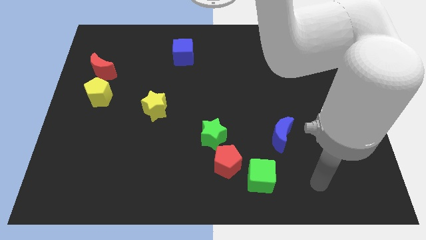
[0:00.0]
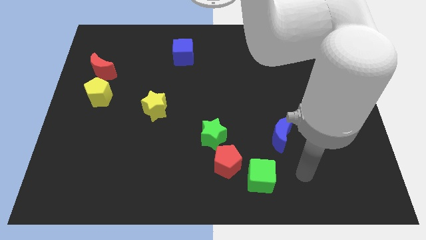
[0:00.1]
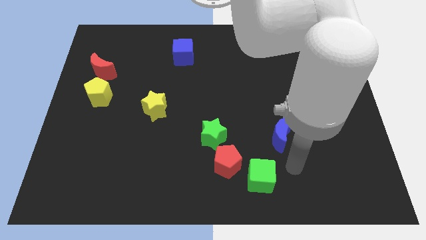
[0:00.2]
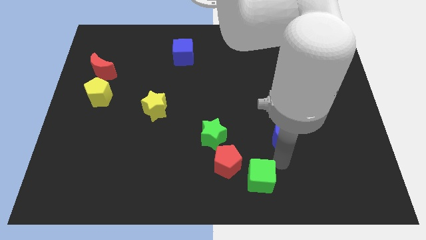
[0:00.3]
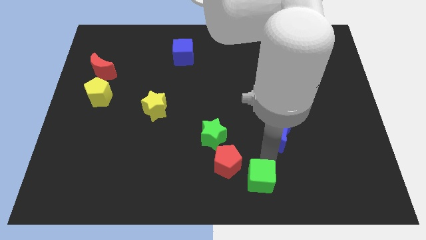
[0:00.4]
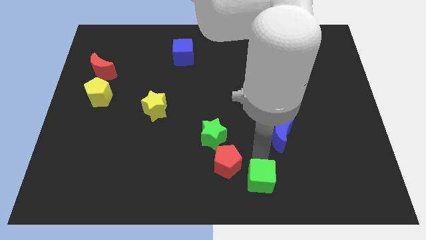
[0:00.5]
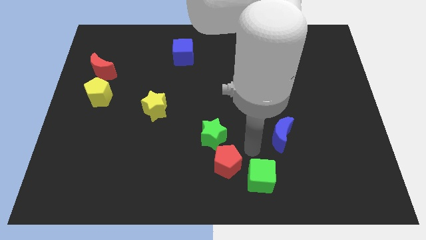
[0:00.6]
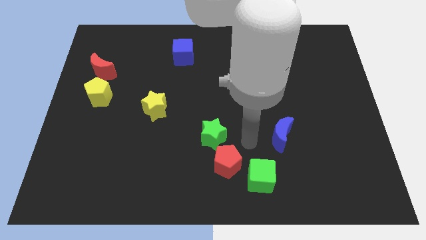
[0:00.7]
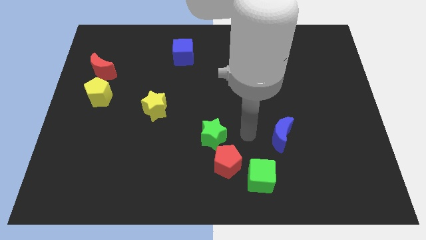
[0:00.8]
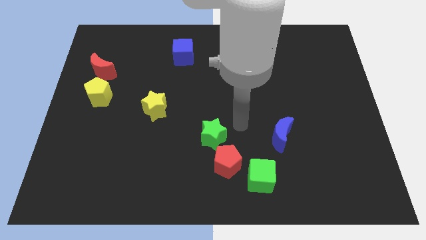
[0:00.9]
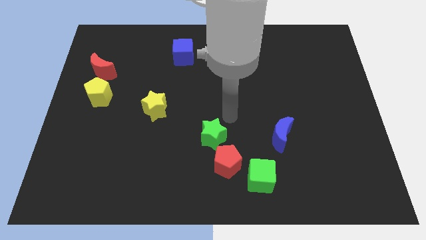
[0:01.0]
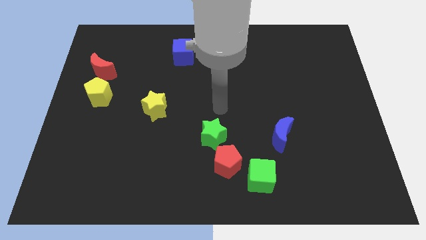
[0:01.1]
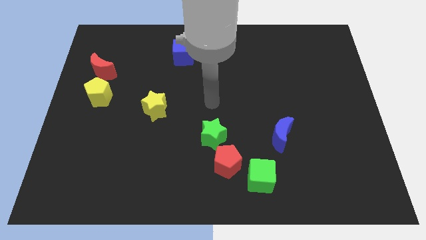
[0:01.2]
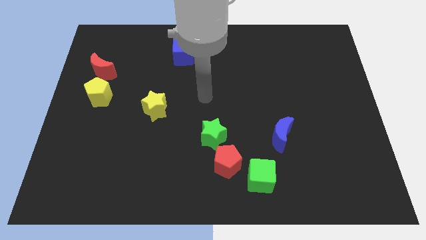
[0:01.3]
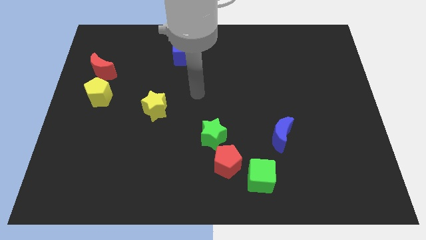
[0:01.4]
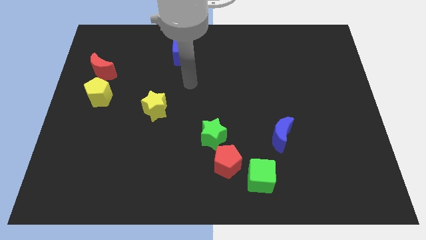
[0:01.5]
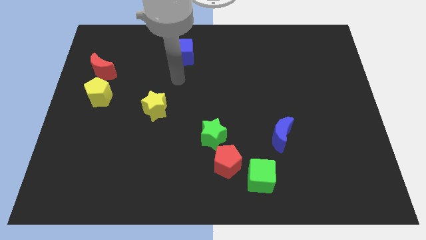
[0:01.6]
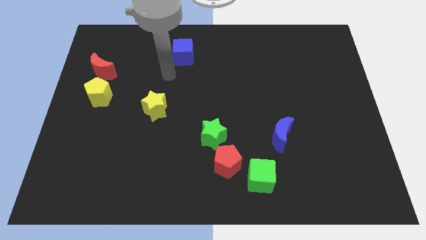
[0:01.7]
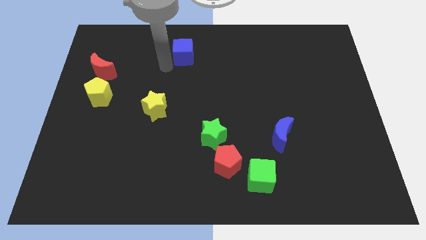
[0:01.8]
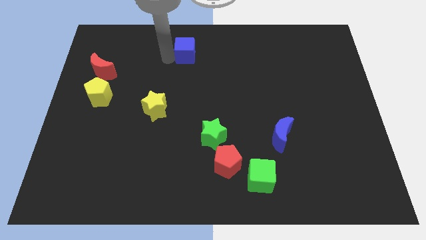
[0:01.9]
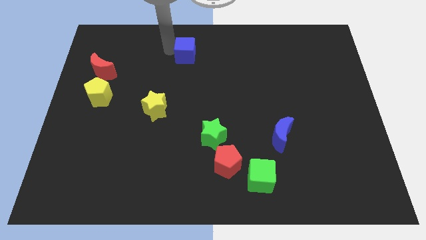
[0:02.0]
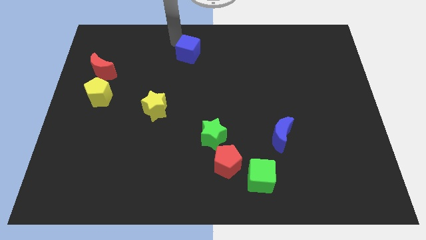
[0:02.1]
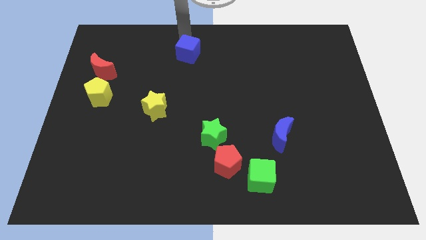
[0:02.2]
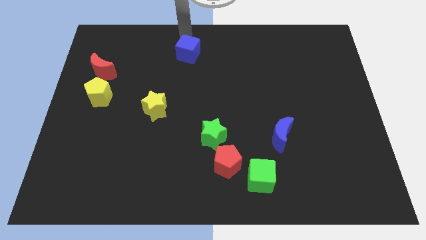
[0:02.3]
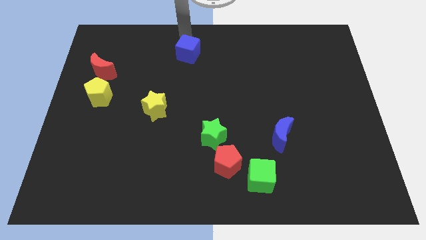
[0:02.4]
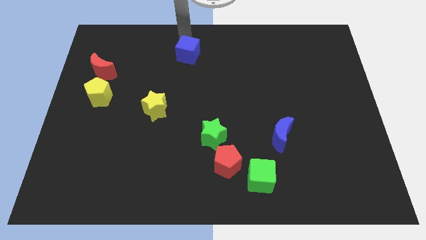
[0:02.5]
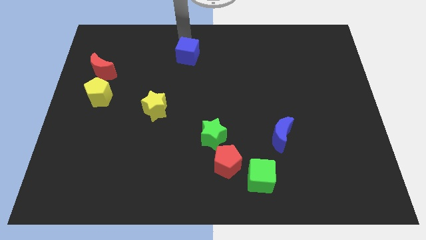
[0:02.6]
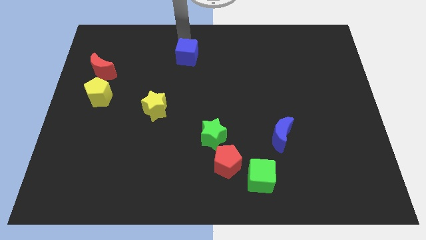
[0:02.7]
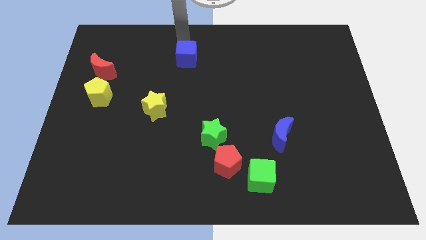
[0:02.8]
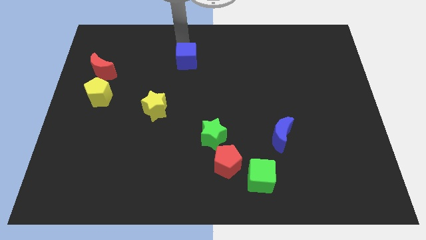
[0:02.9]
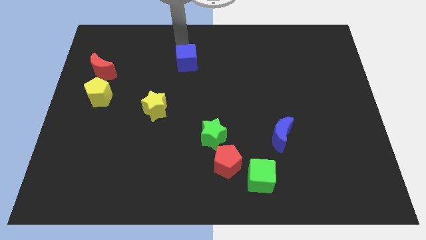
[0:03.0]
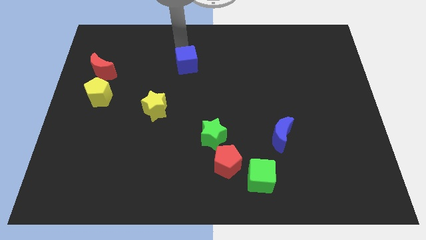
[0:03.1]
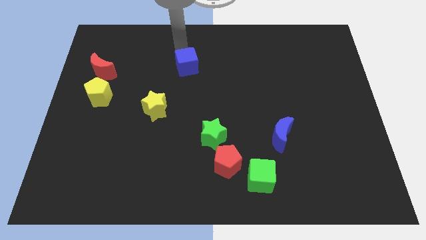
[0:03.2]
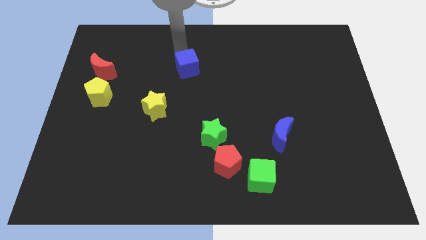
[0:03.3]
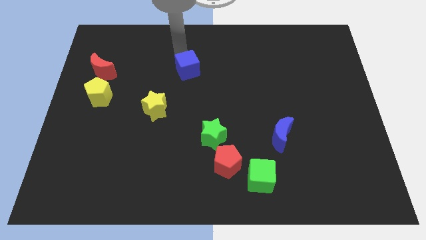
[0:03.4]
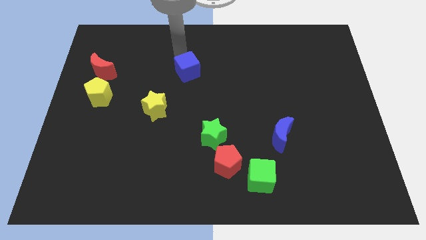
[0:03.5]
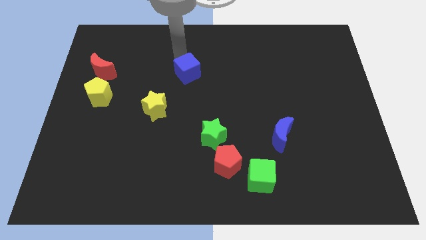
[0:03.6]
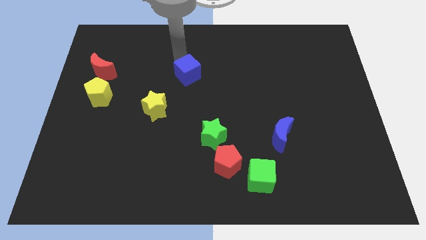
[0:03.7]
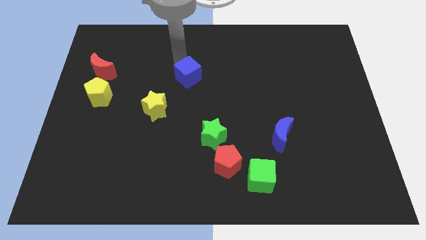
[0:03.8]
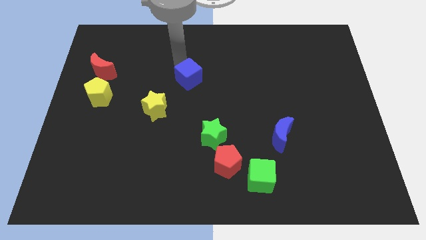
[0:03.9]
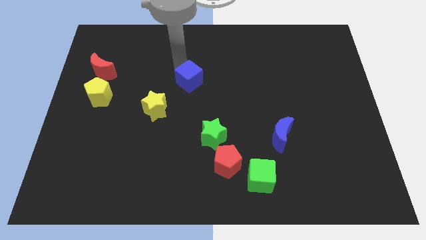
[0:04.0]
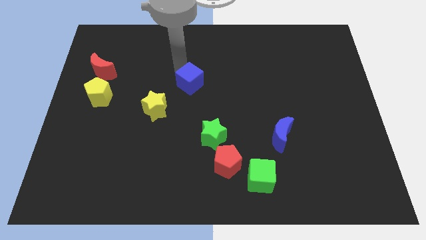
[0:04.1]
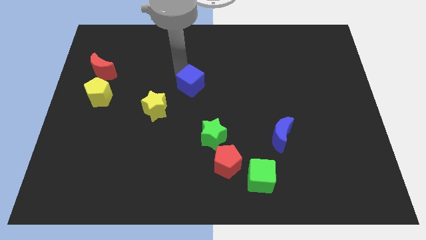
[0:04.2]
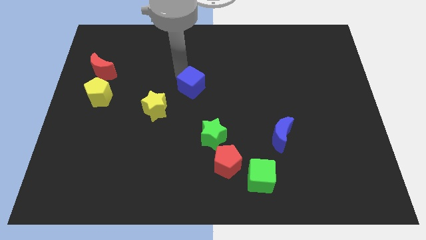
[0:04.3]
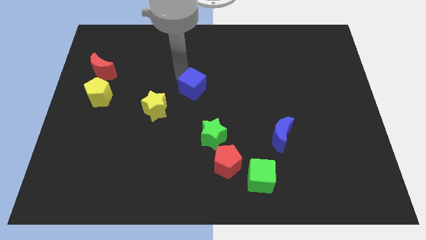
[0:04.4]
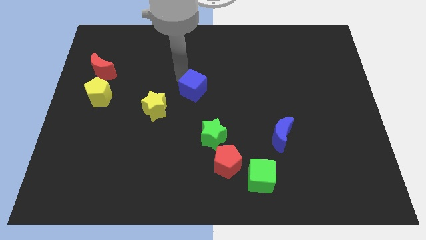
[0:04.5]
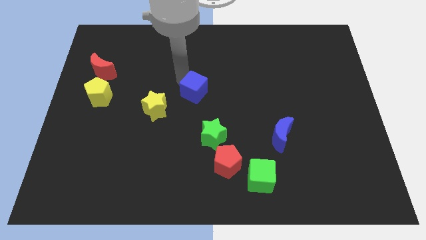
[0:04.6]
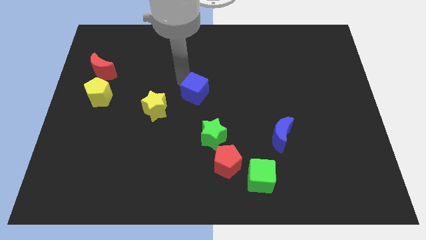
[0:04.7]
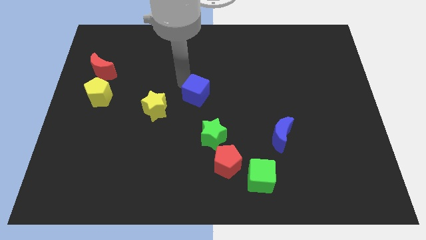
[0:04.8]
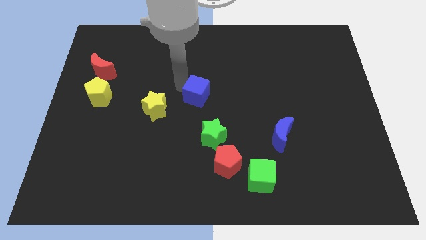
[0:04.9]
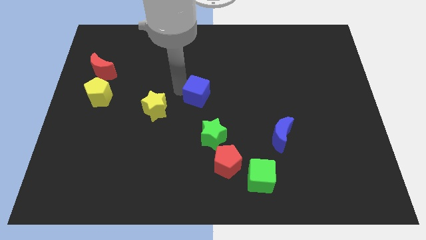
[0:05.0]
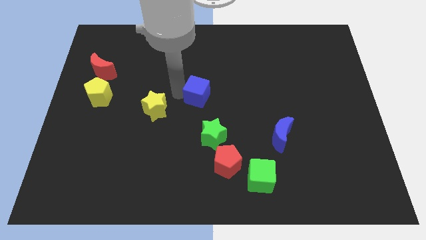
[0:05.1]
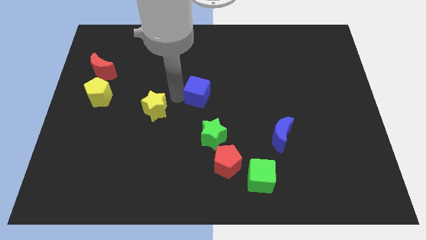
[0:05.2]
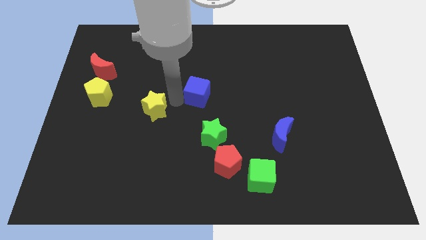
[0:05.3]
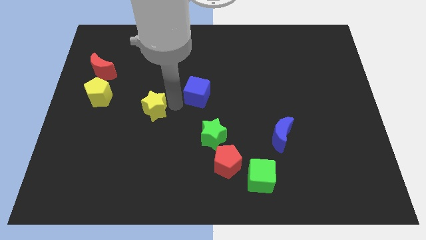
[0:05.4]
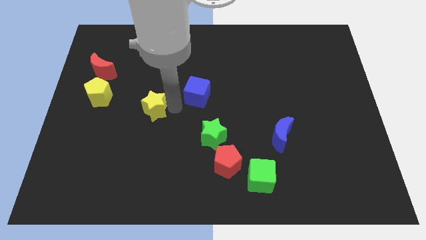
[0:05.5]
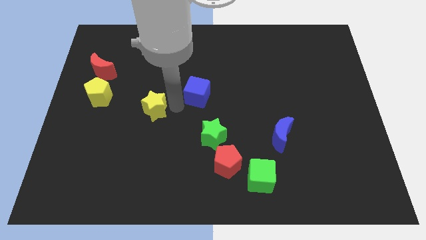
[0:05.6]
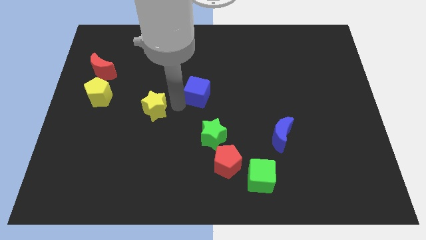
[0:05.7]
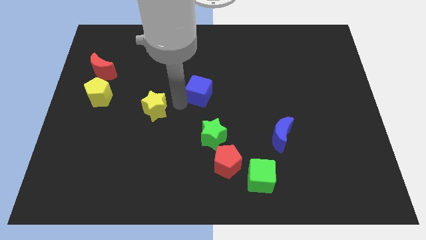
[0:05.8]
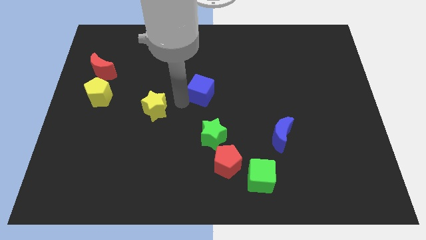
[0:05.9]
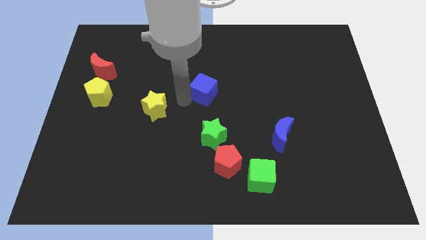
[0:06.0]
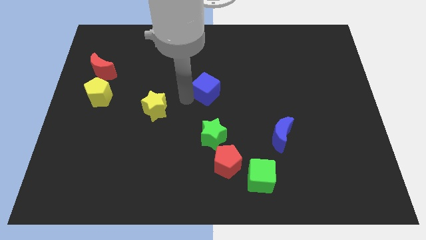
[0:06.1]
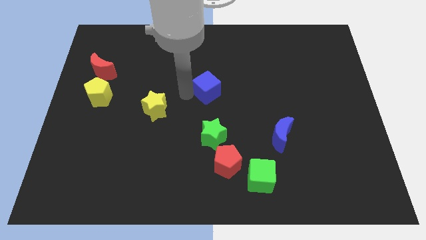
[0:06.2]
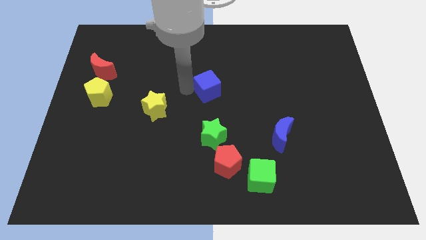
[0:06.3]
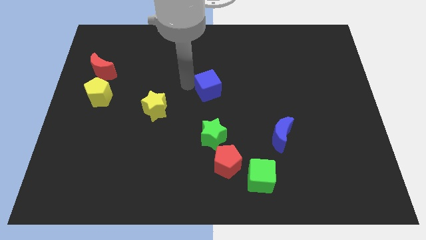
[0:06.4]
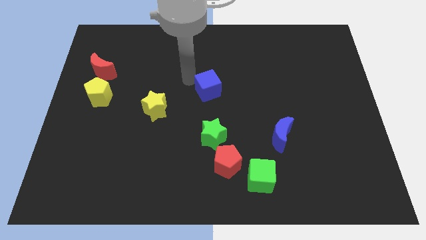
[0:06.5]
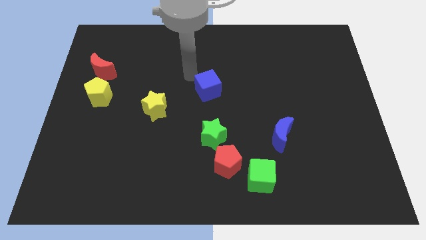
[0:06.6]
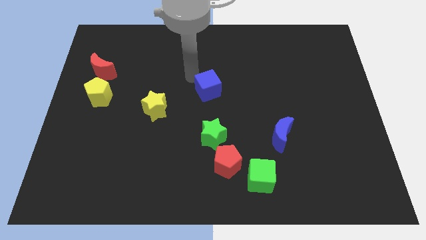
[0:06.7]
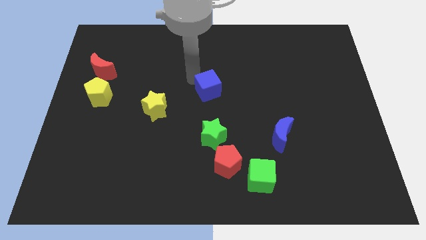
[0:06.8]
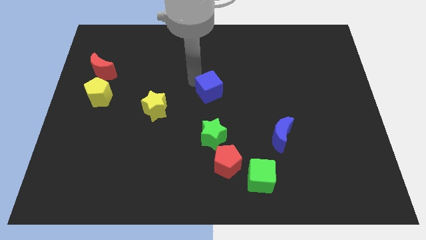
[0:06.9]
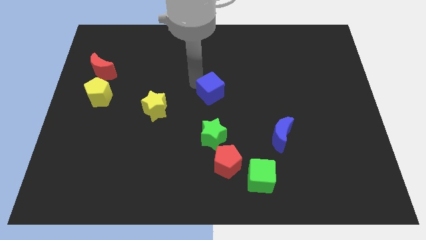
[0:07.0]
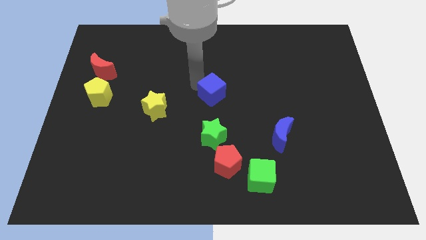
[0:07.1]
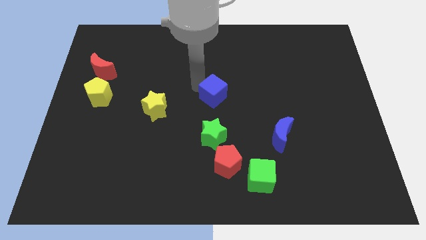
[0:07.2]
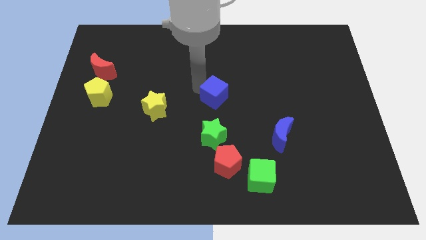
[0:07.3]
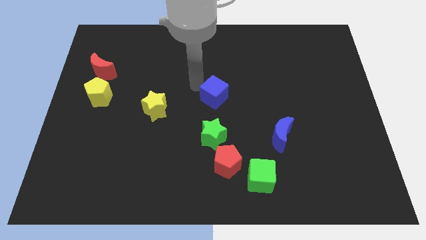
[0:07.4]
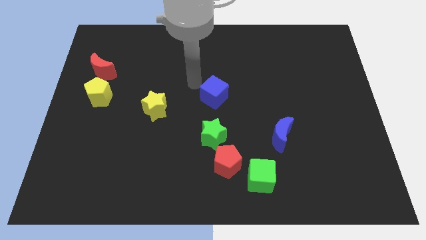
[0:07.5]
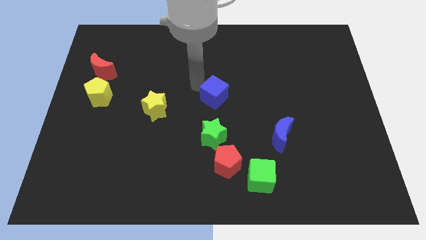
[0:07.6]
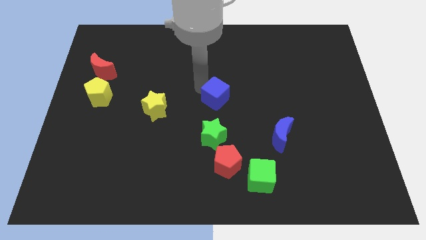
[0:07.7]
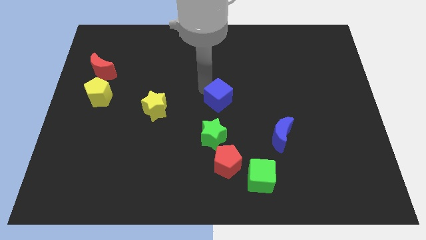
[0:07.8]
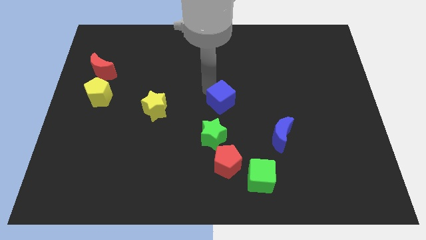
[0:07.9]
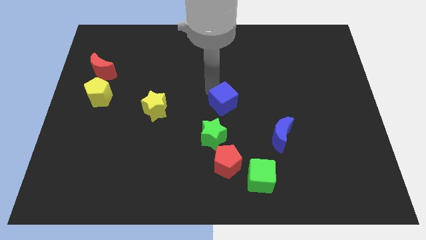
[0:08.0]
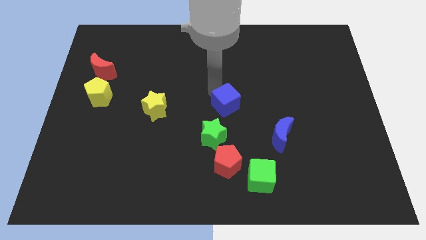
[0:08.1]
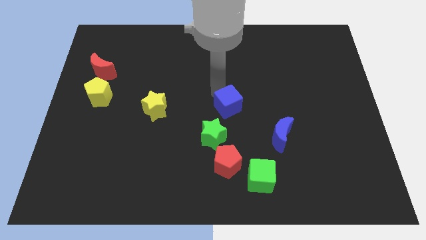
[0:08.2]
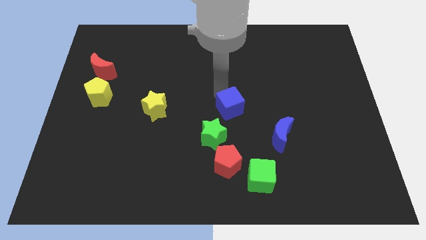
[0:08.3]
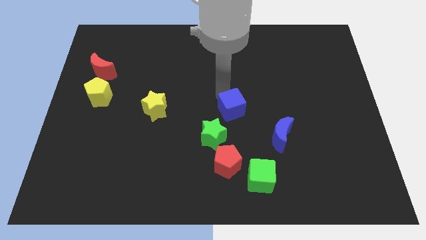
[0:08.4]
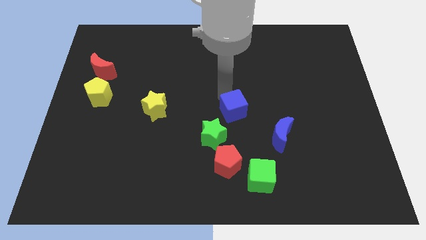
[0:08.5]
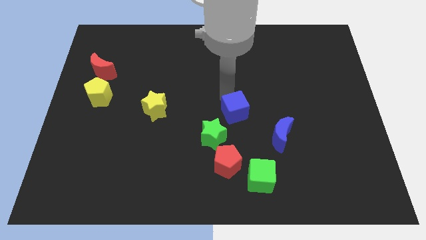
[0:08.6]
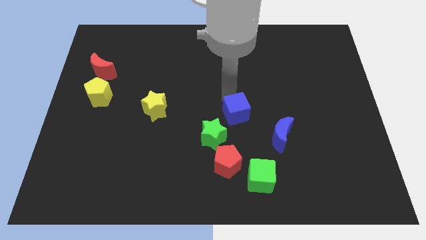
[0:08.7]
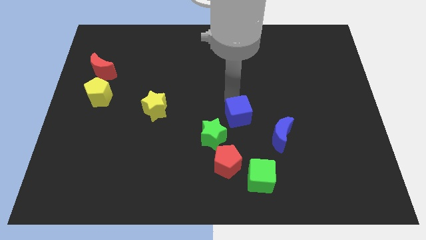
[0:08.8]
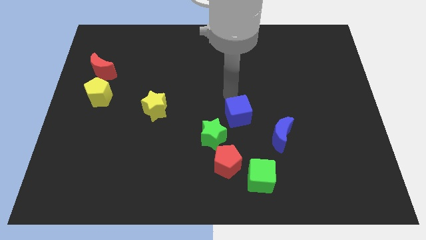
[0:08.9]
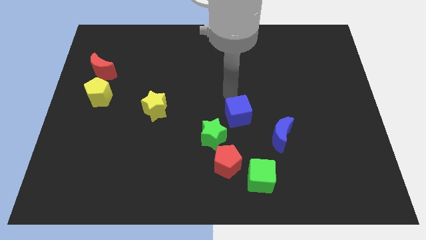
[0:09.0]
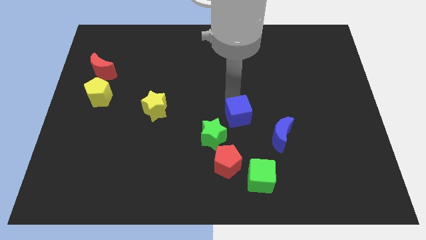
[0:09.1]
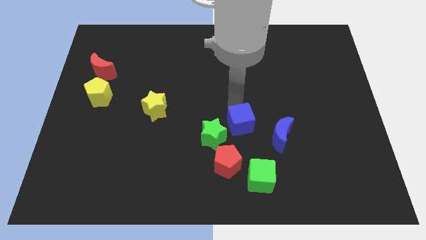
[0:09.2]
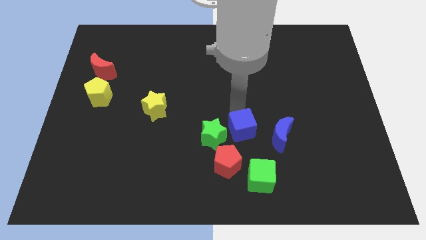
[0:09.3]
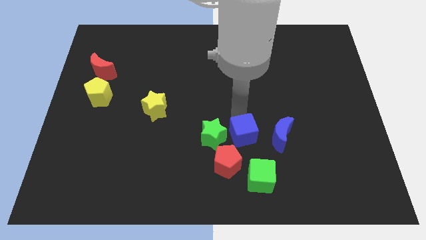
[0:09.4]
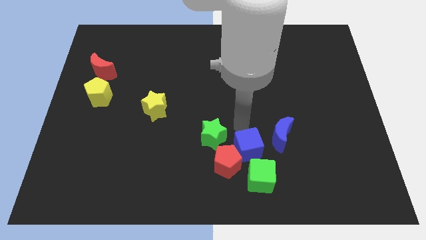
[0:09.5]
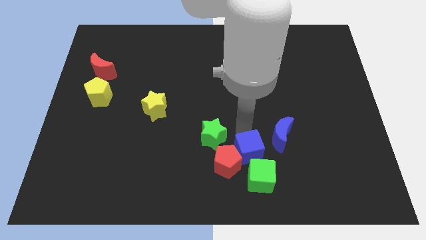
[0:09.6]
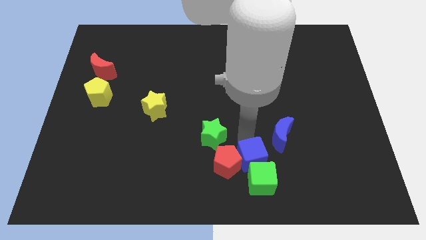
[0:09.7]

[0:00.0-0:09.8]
push the blue cube to the green cube
